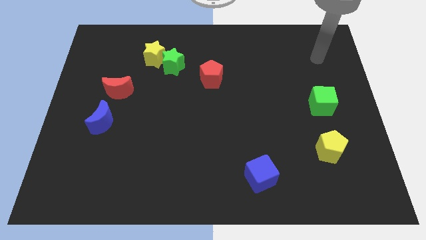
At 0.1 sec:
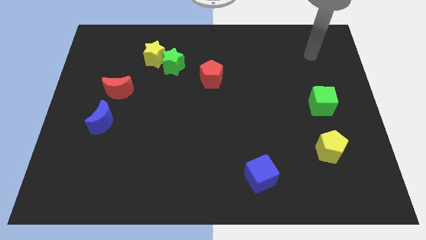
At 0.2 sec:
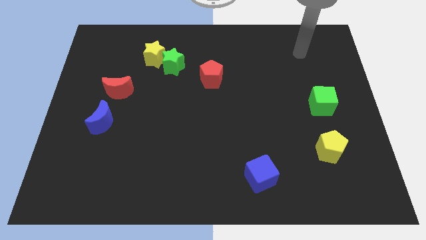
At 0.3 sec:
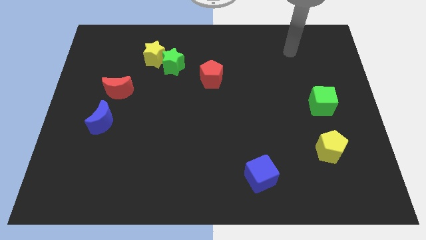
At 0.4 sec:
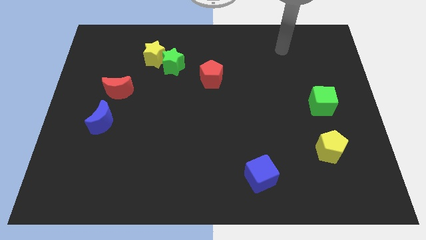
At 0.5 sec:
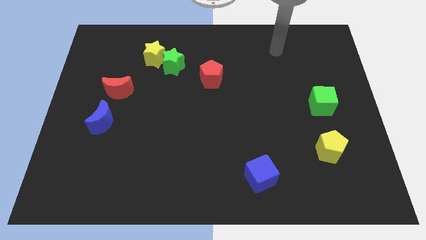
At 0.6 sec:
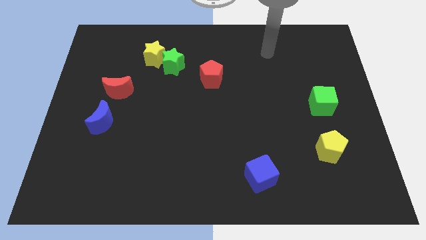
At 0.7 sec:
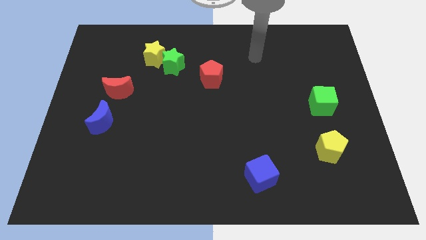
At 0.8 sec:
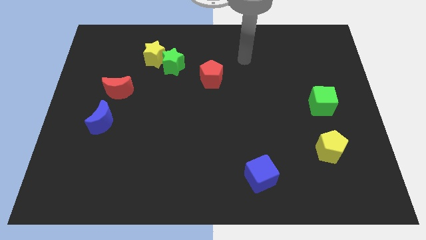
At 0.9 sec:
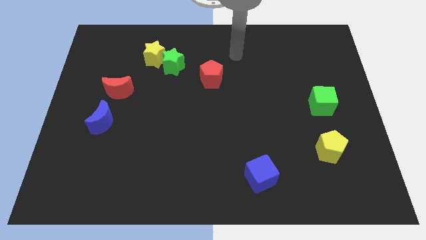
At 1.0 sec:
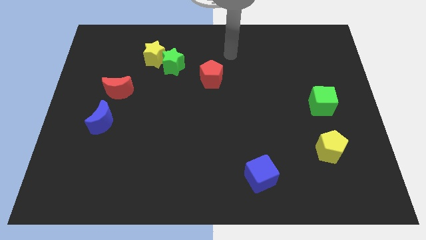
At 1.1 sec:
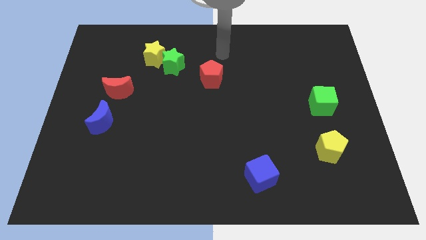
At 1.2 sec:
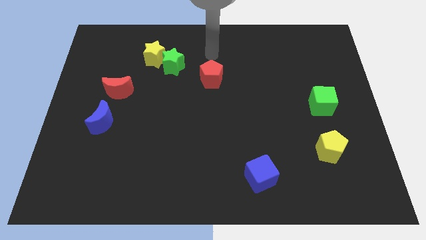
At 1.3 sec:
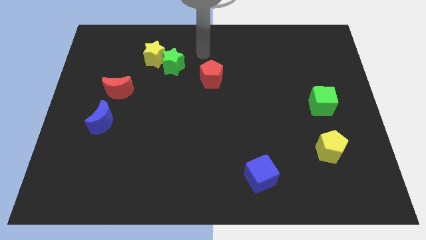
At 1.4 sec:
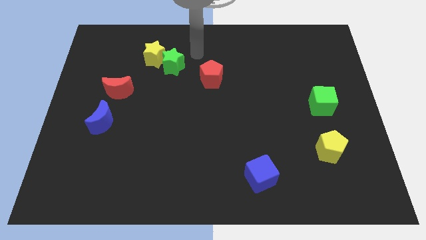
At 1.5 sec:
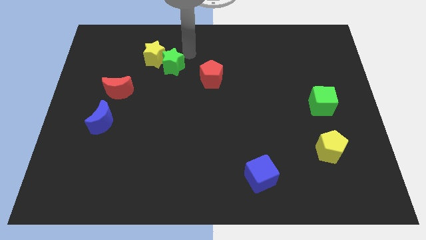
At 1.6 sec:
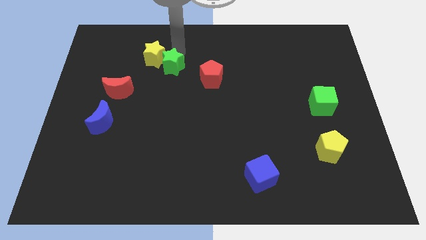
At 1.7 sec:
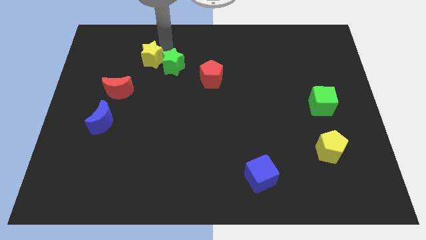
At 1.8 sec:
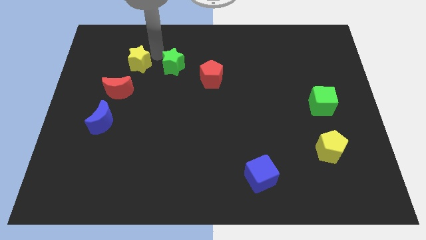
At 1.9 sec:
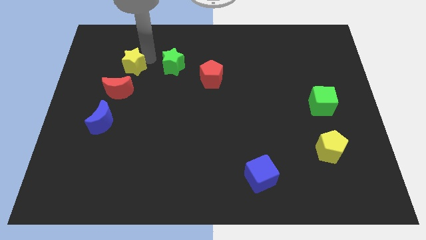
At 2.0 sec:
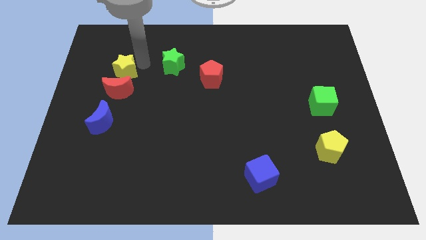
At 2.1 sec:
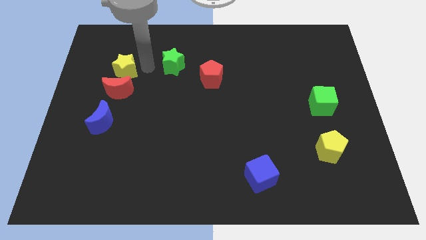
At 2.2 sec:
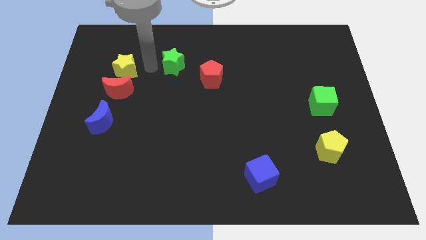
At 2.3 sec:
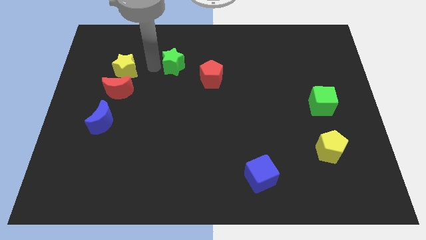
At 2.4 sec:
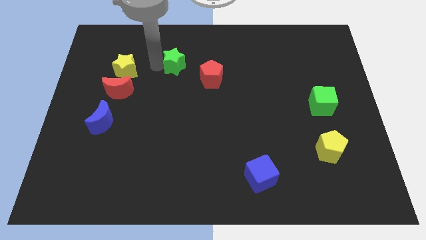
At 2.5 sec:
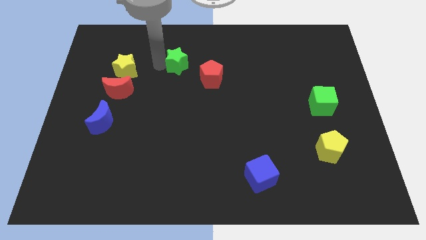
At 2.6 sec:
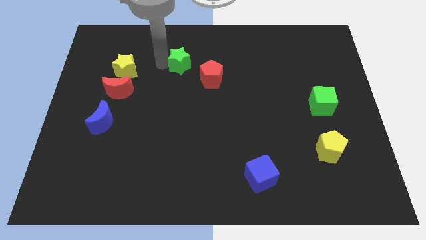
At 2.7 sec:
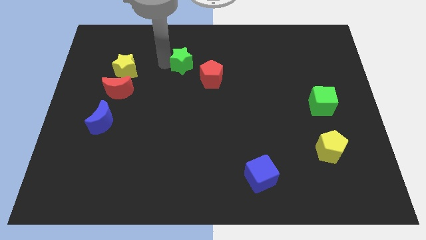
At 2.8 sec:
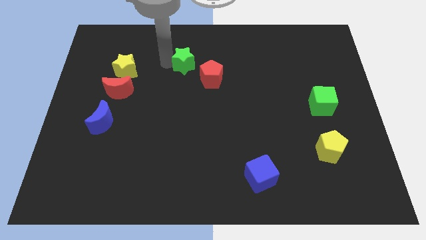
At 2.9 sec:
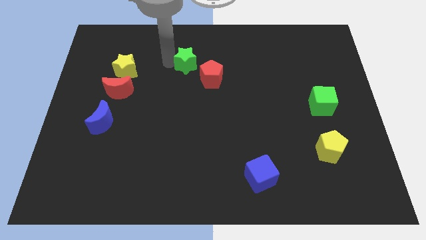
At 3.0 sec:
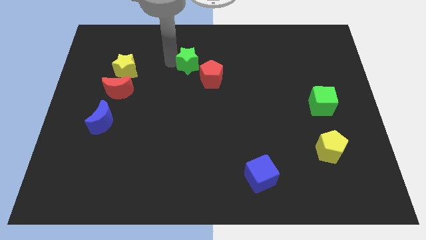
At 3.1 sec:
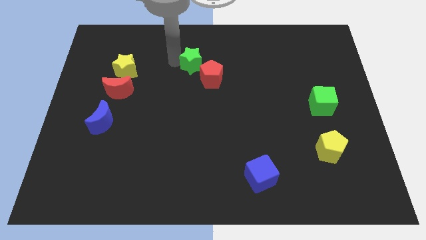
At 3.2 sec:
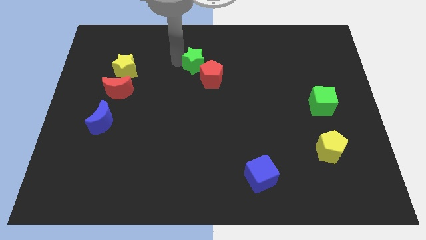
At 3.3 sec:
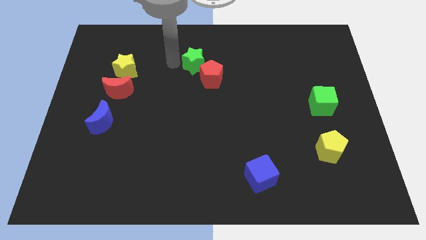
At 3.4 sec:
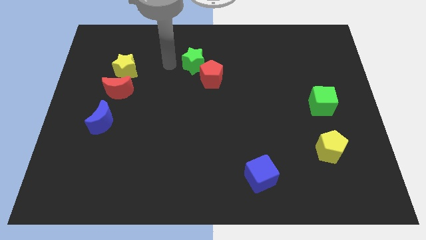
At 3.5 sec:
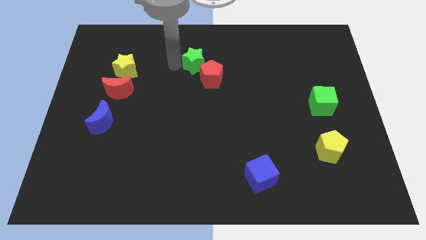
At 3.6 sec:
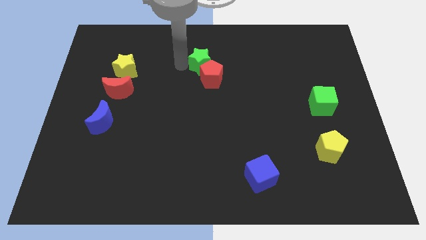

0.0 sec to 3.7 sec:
push the green star right a little bit

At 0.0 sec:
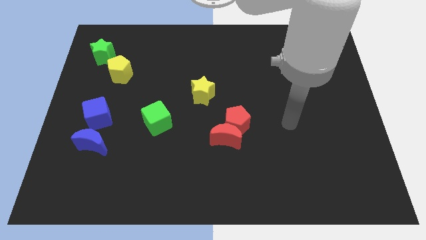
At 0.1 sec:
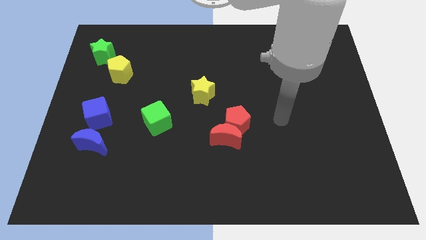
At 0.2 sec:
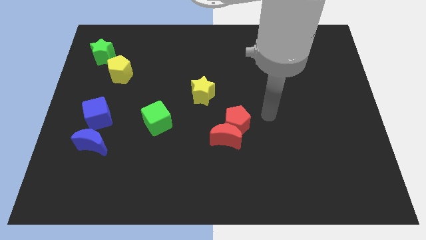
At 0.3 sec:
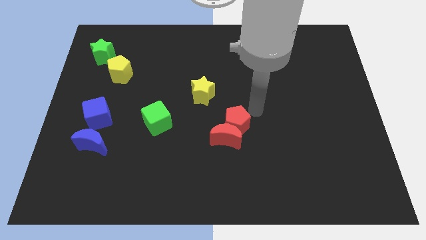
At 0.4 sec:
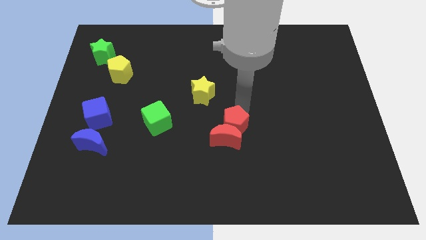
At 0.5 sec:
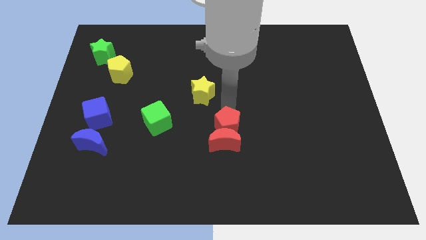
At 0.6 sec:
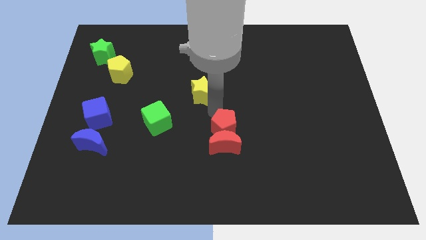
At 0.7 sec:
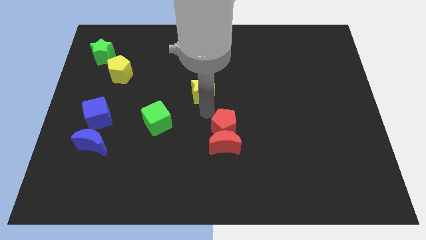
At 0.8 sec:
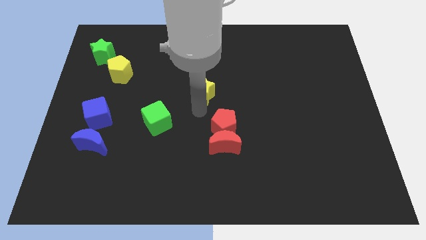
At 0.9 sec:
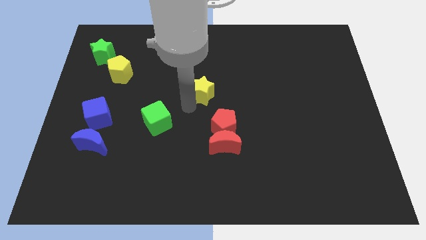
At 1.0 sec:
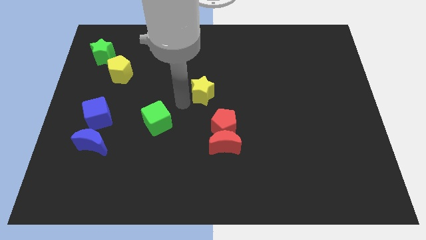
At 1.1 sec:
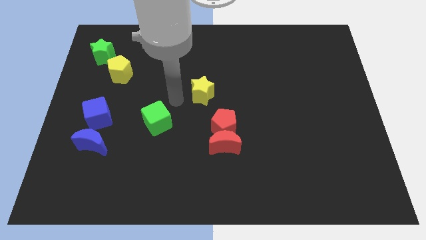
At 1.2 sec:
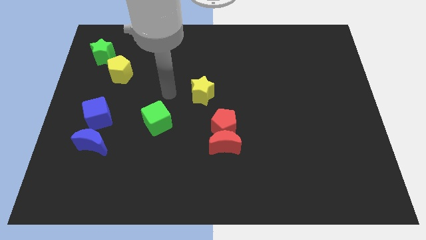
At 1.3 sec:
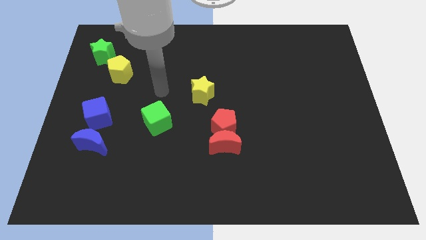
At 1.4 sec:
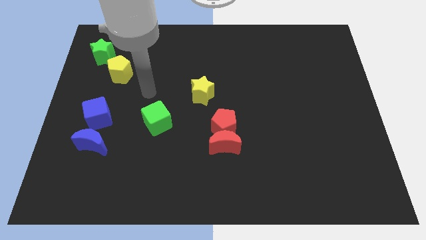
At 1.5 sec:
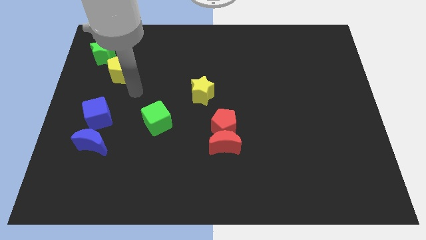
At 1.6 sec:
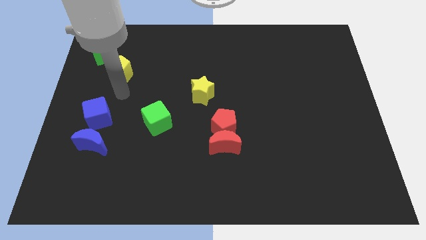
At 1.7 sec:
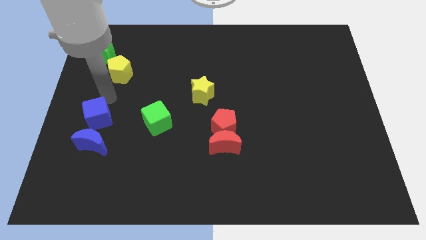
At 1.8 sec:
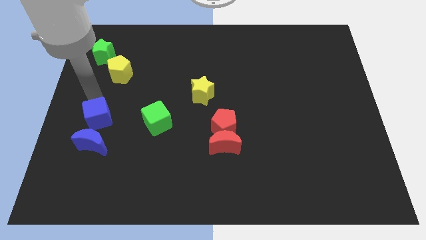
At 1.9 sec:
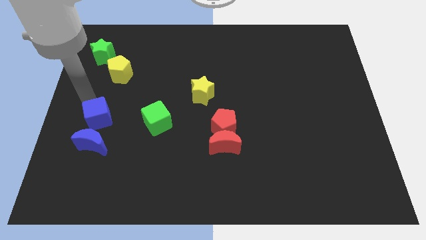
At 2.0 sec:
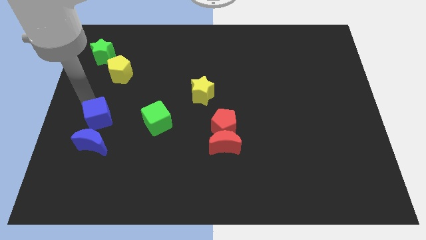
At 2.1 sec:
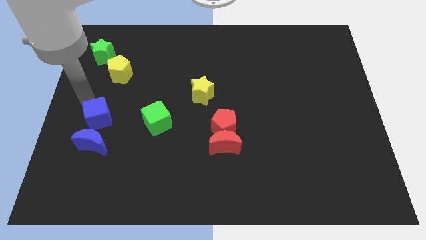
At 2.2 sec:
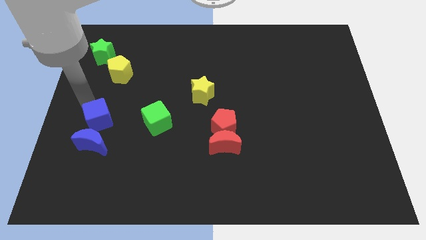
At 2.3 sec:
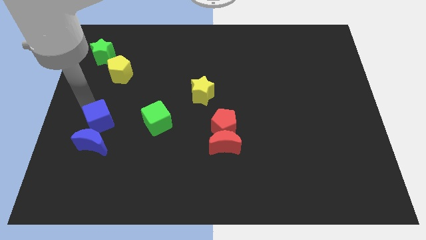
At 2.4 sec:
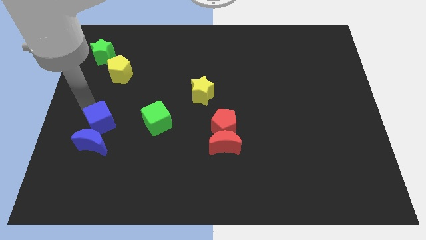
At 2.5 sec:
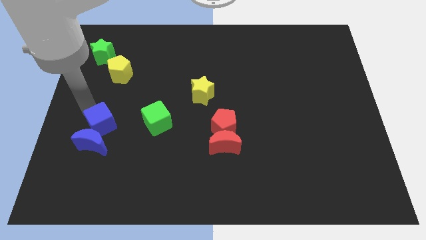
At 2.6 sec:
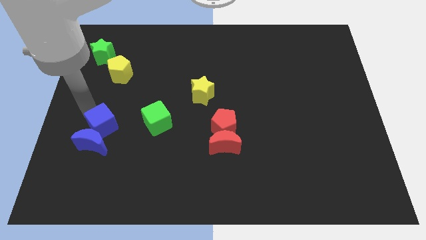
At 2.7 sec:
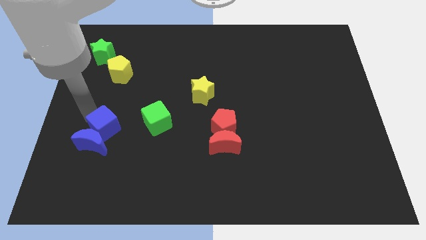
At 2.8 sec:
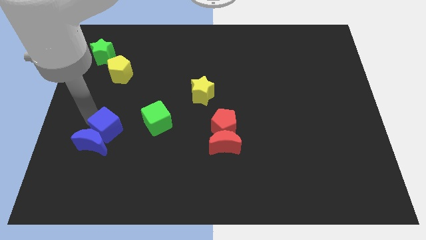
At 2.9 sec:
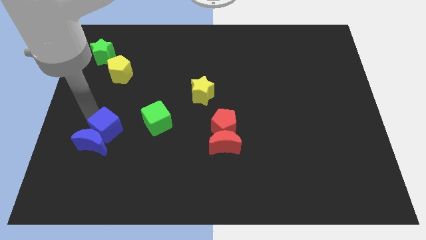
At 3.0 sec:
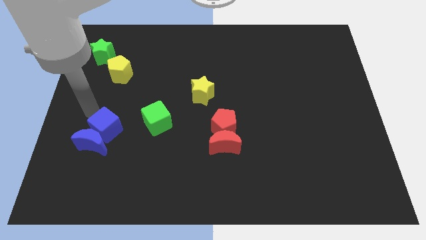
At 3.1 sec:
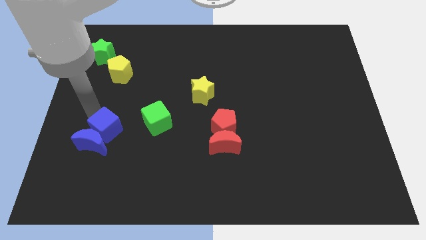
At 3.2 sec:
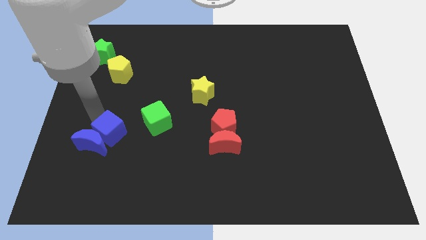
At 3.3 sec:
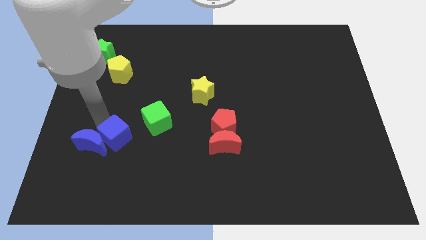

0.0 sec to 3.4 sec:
slightly push the blue cube downwards and to the right diagonally

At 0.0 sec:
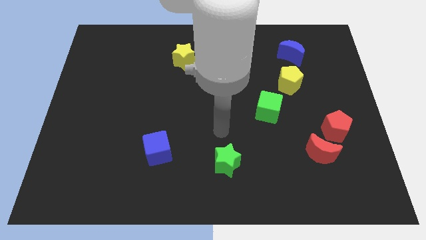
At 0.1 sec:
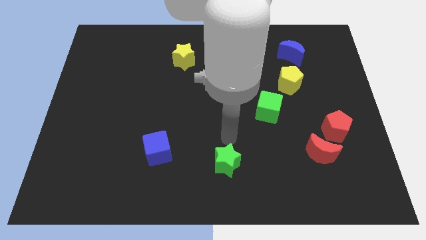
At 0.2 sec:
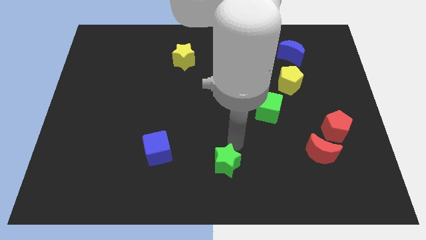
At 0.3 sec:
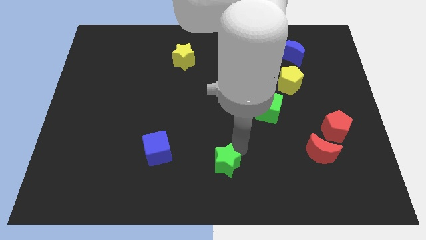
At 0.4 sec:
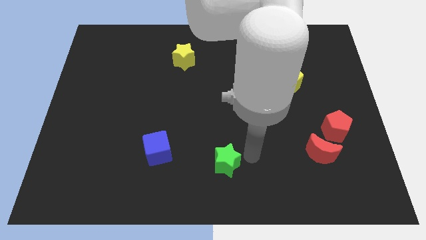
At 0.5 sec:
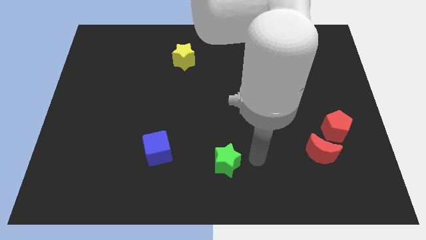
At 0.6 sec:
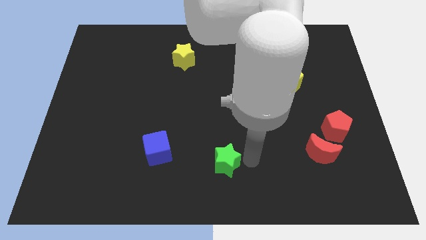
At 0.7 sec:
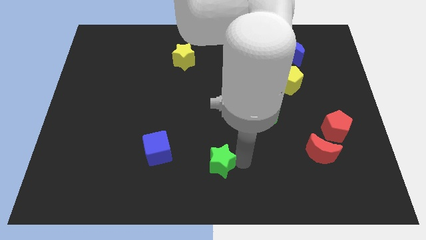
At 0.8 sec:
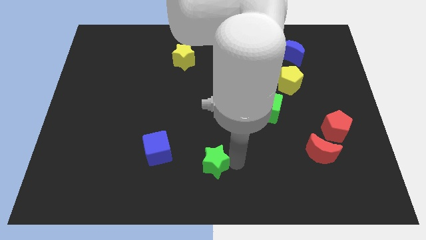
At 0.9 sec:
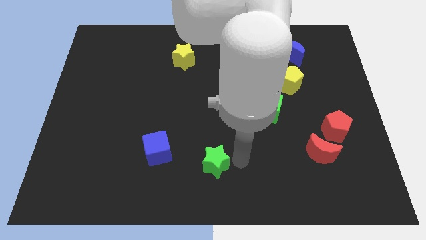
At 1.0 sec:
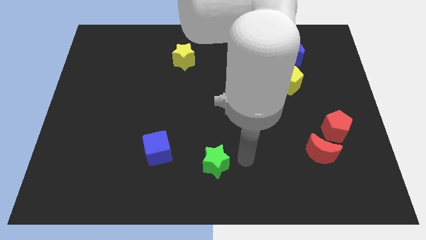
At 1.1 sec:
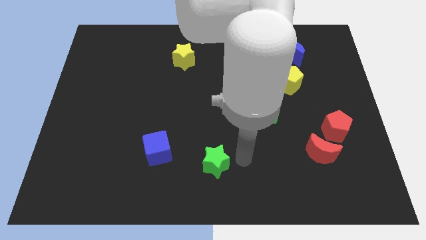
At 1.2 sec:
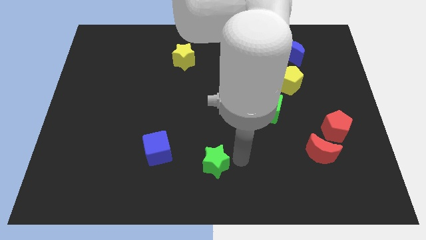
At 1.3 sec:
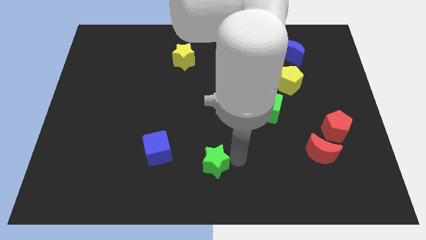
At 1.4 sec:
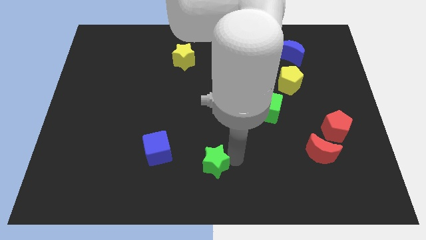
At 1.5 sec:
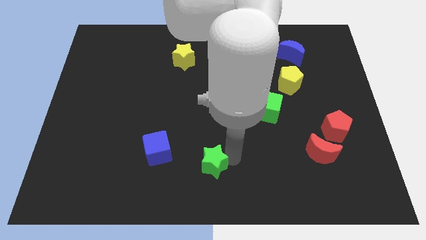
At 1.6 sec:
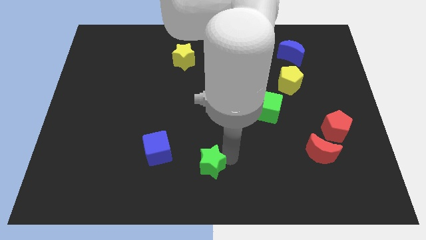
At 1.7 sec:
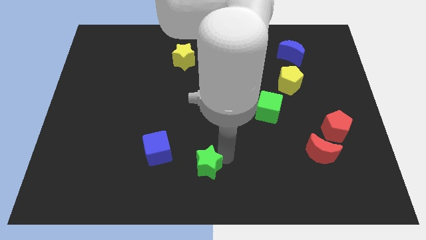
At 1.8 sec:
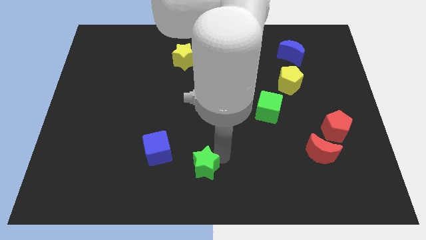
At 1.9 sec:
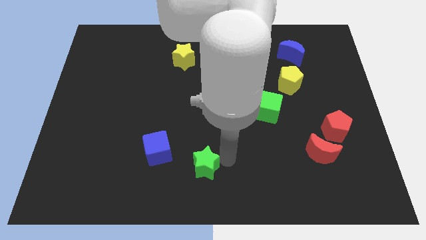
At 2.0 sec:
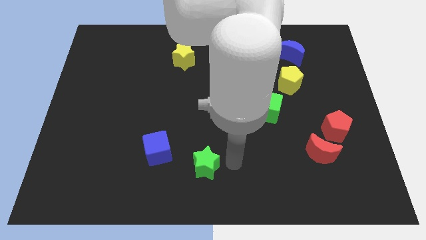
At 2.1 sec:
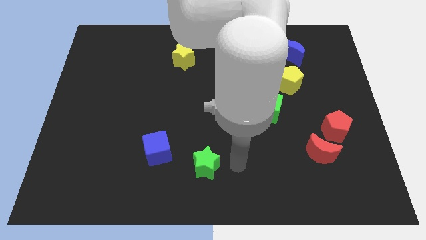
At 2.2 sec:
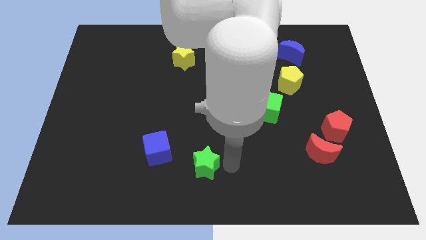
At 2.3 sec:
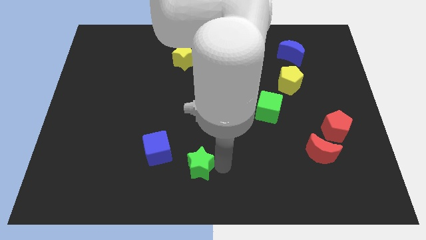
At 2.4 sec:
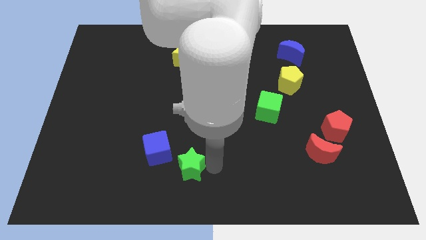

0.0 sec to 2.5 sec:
slightly slide the green star to the left
